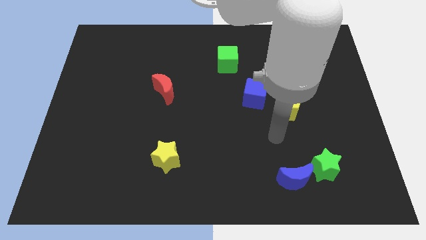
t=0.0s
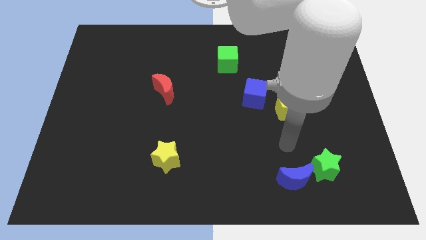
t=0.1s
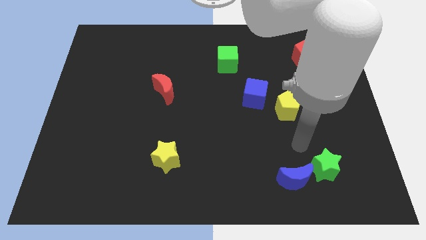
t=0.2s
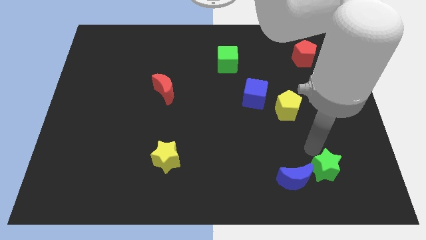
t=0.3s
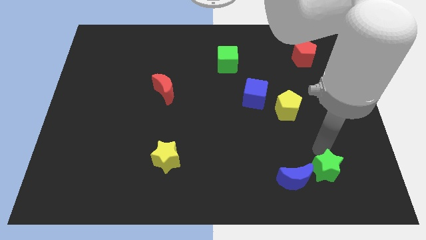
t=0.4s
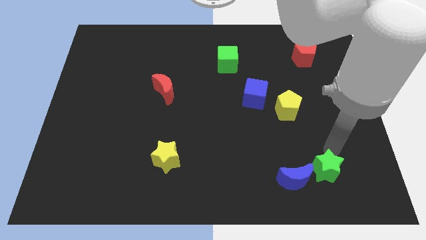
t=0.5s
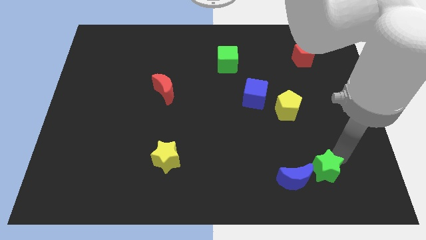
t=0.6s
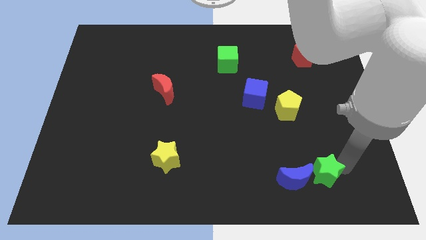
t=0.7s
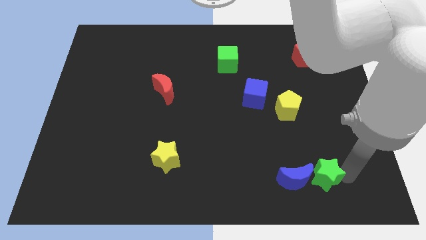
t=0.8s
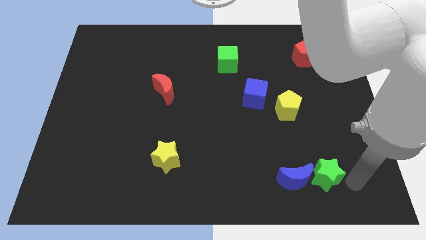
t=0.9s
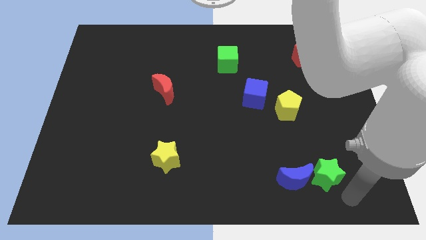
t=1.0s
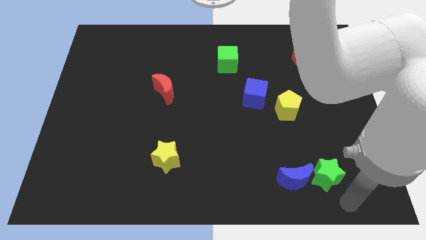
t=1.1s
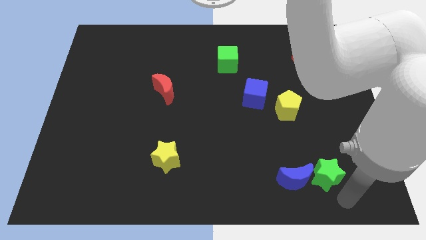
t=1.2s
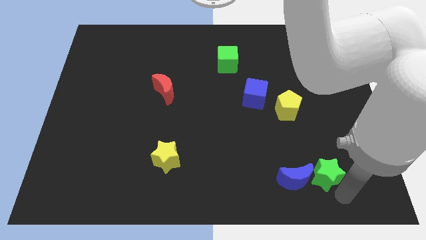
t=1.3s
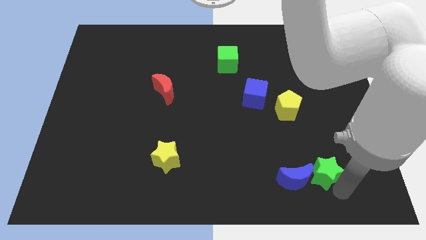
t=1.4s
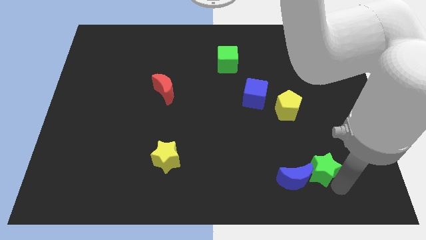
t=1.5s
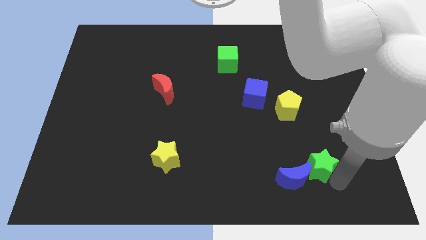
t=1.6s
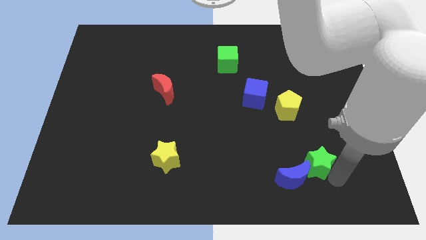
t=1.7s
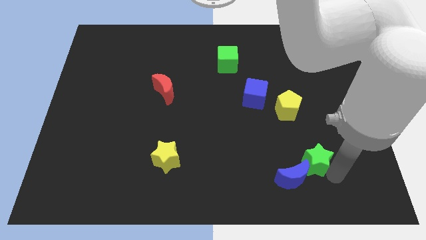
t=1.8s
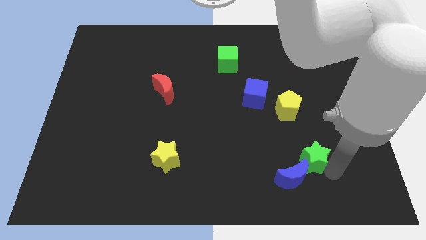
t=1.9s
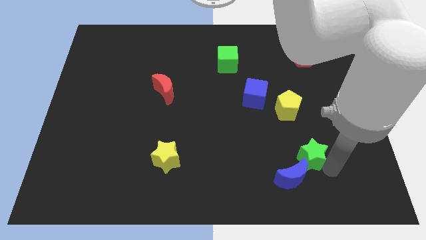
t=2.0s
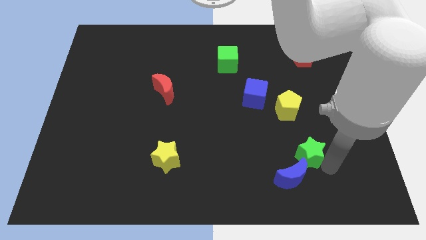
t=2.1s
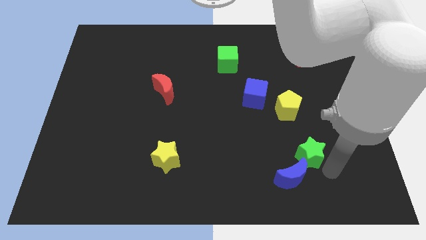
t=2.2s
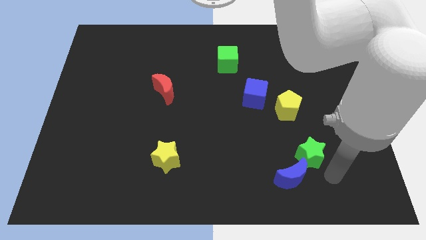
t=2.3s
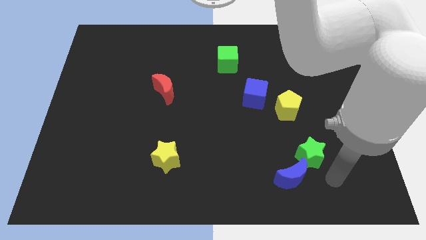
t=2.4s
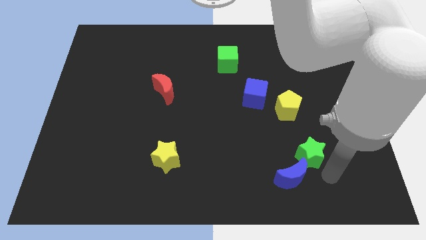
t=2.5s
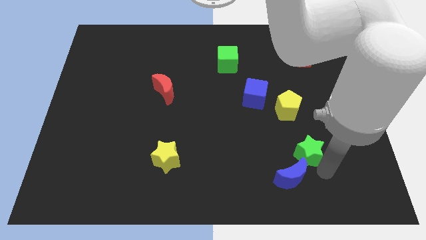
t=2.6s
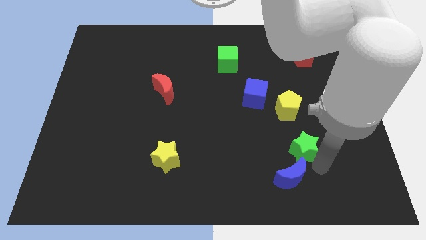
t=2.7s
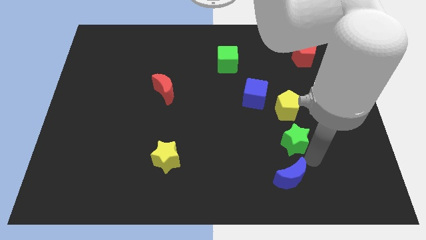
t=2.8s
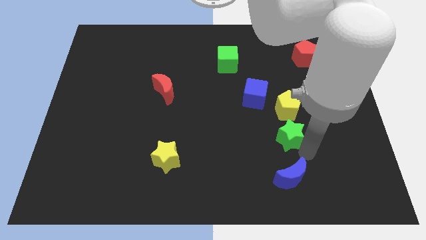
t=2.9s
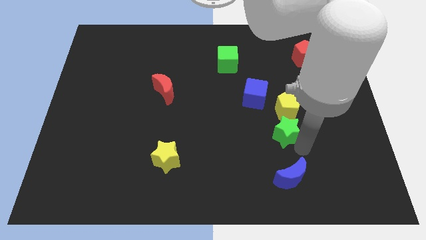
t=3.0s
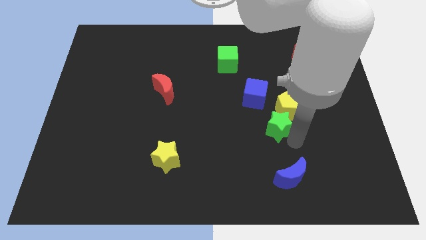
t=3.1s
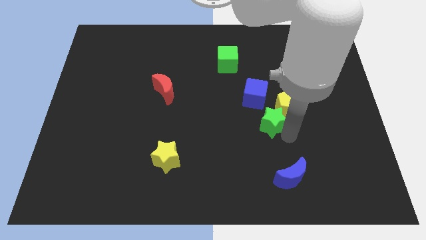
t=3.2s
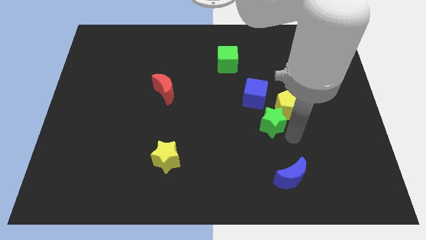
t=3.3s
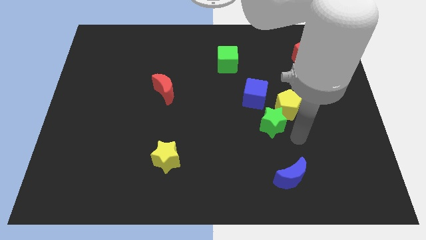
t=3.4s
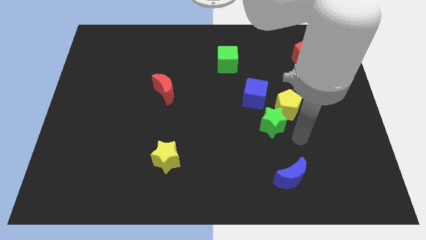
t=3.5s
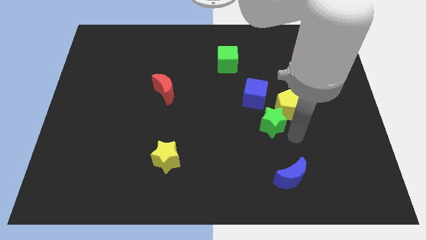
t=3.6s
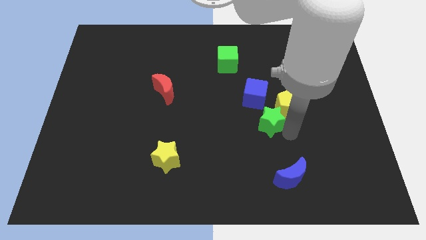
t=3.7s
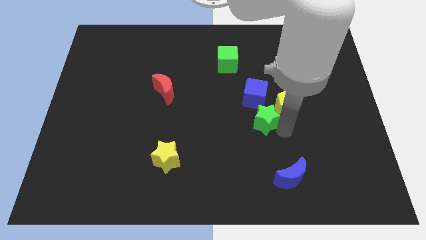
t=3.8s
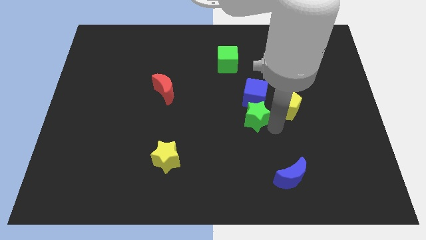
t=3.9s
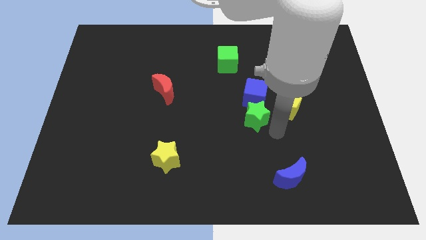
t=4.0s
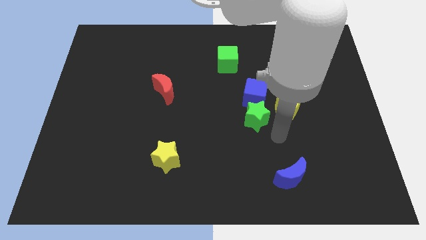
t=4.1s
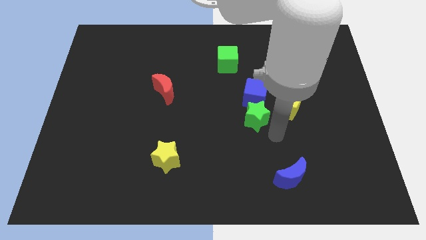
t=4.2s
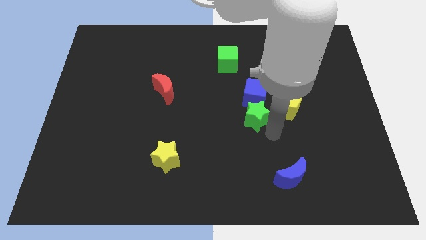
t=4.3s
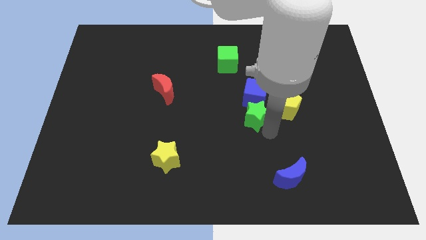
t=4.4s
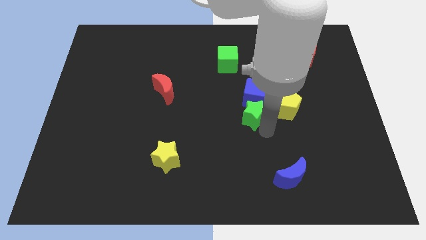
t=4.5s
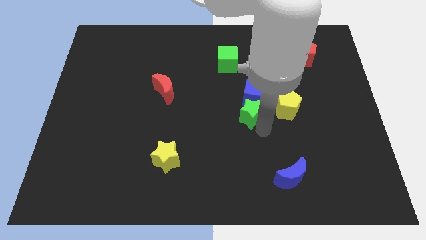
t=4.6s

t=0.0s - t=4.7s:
push the green star upwards and to the left diagonally

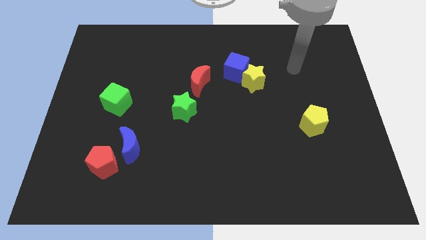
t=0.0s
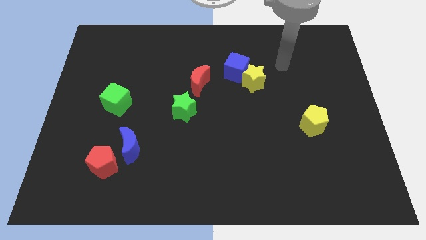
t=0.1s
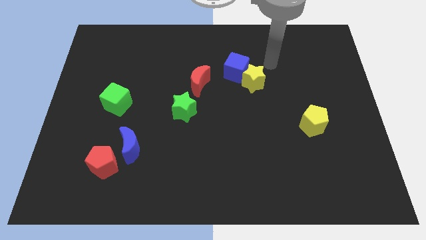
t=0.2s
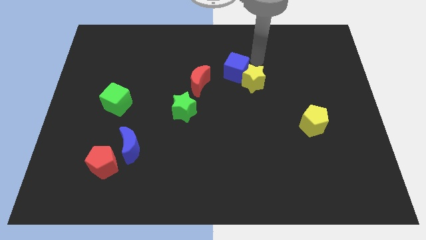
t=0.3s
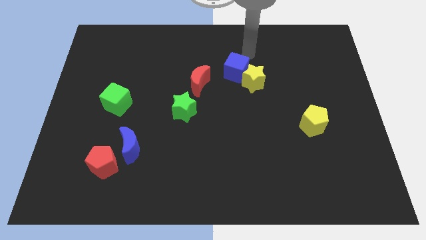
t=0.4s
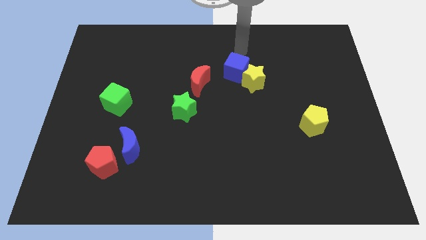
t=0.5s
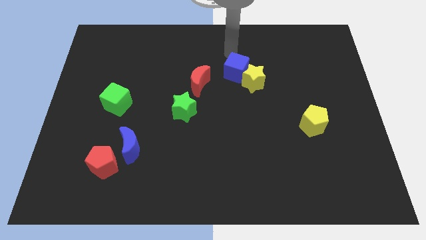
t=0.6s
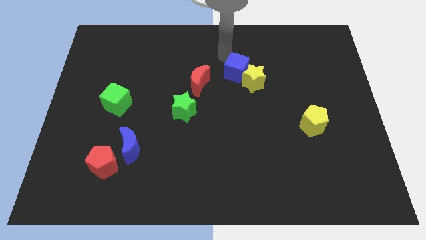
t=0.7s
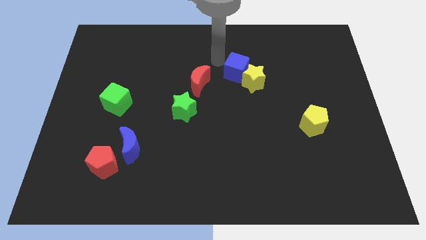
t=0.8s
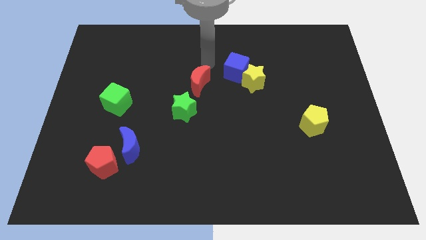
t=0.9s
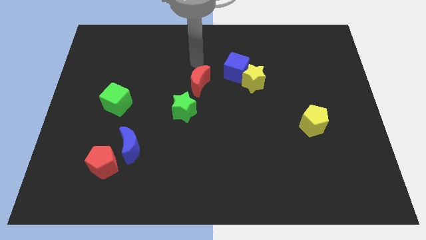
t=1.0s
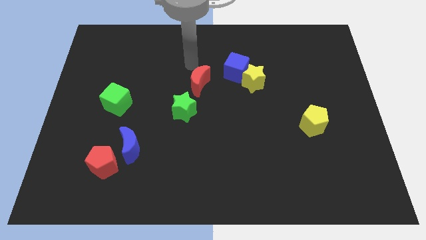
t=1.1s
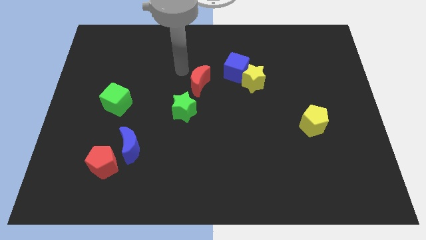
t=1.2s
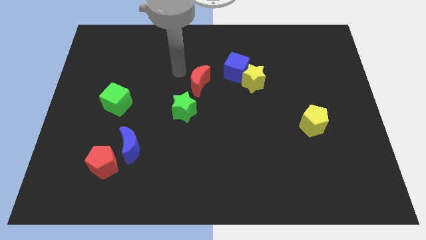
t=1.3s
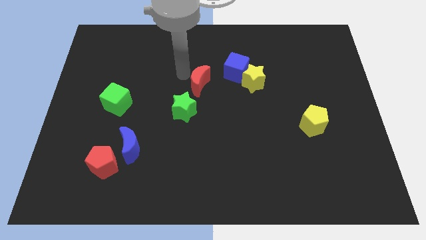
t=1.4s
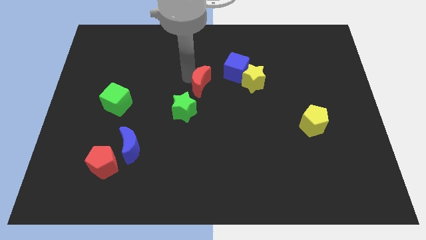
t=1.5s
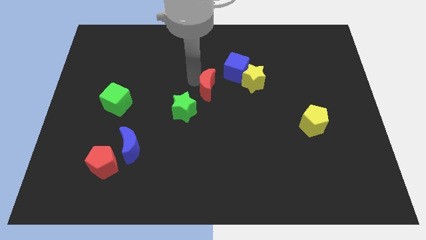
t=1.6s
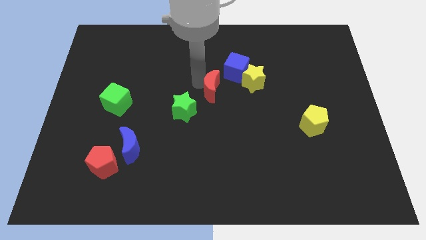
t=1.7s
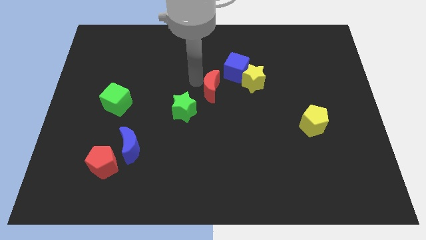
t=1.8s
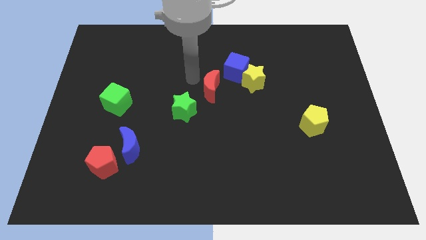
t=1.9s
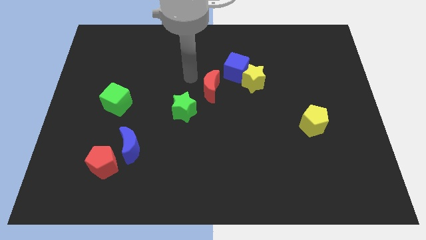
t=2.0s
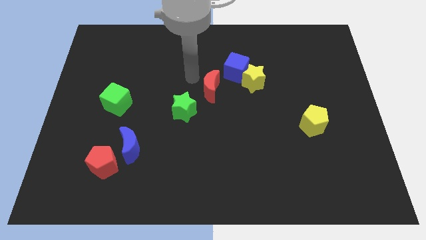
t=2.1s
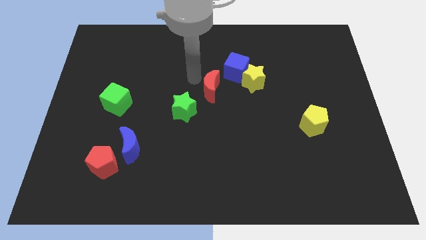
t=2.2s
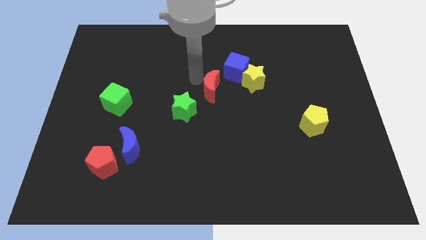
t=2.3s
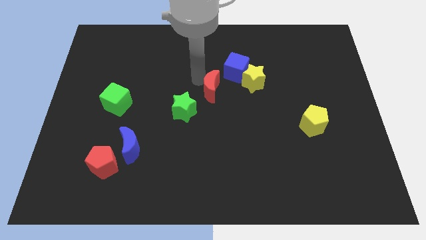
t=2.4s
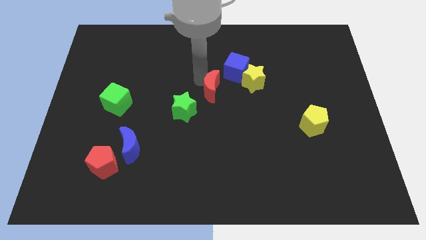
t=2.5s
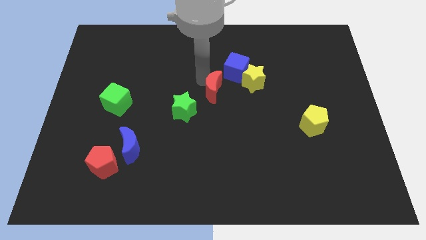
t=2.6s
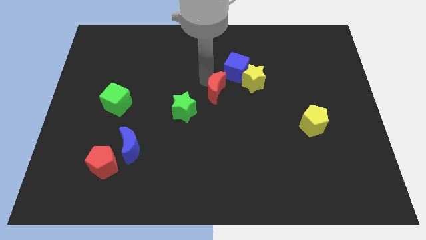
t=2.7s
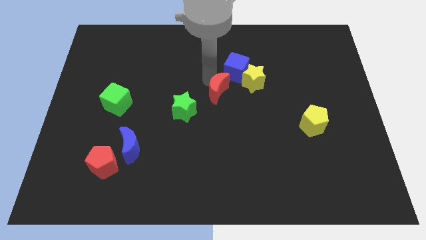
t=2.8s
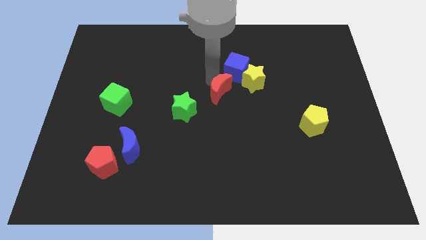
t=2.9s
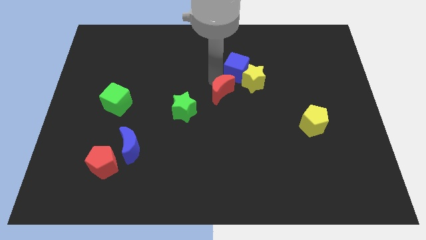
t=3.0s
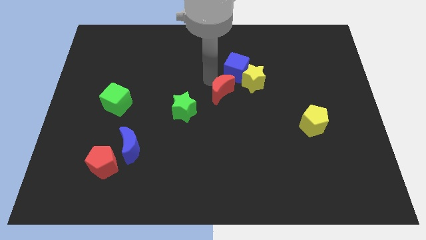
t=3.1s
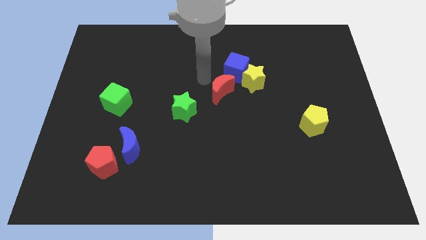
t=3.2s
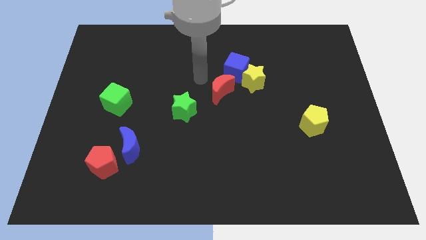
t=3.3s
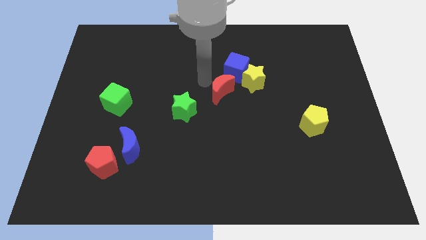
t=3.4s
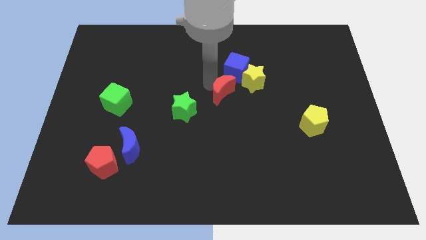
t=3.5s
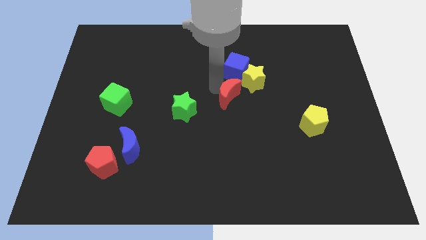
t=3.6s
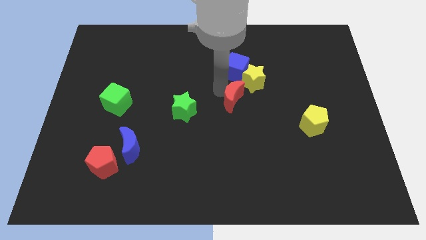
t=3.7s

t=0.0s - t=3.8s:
slightly push the red moon to the right
